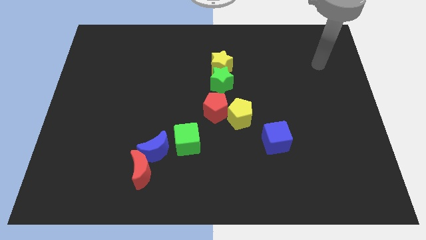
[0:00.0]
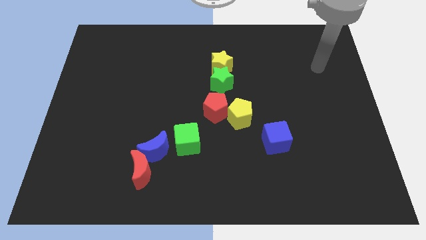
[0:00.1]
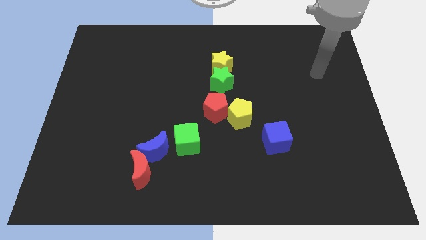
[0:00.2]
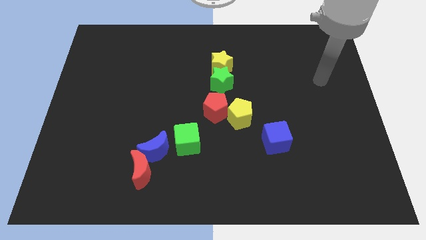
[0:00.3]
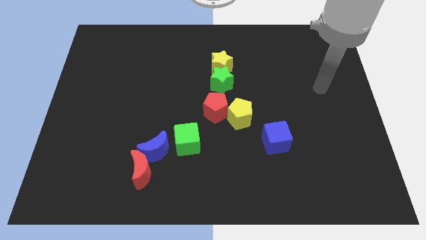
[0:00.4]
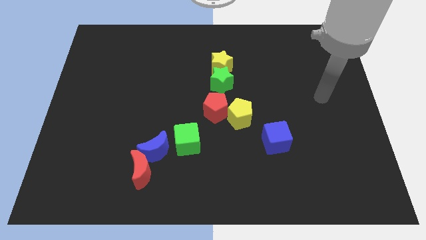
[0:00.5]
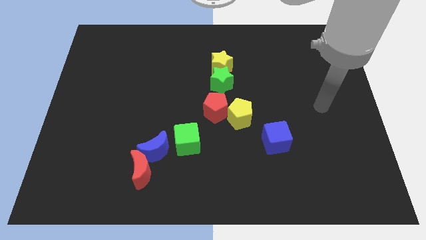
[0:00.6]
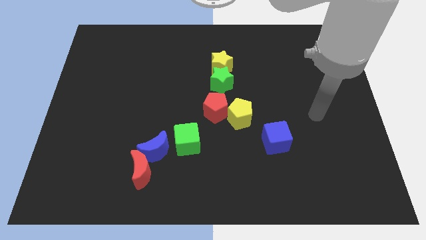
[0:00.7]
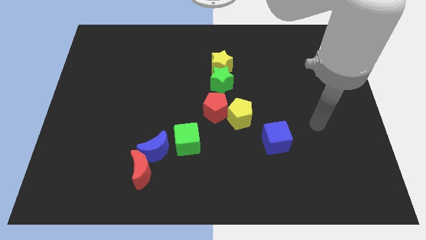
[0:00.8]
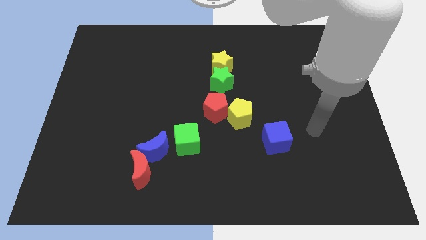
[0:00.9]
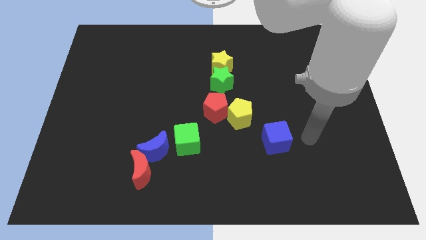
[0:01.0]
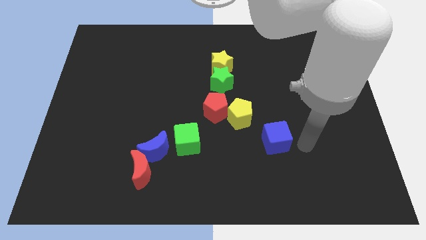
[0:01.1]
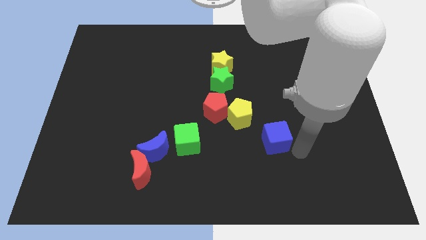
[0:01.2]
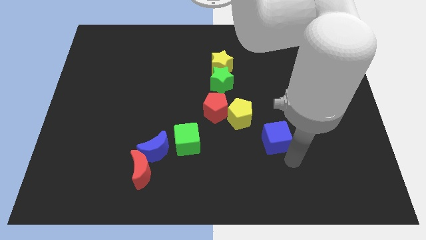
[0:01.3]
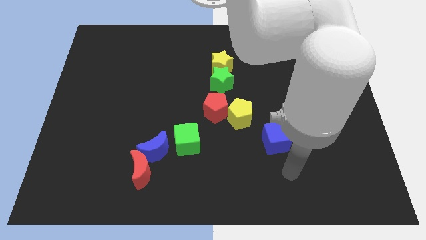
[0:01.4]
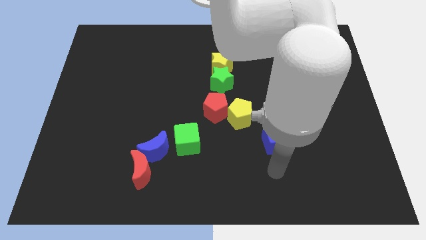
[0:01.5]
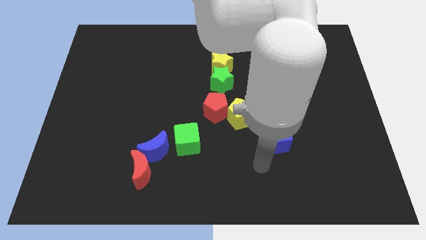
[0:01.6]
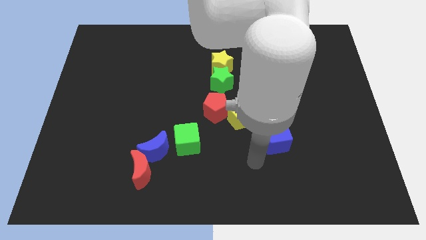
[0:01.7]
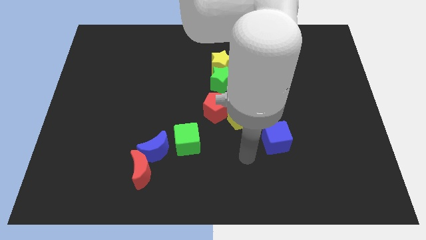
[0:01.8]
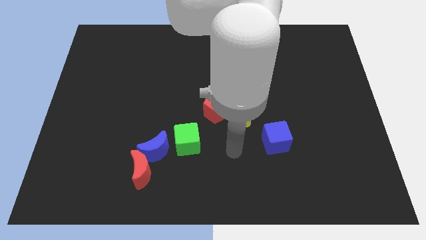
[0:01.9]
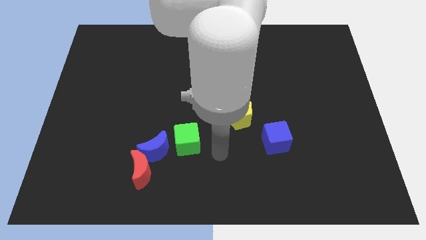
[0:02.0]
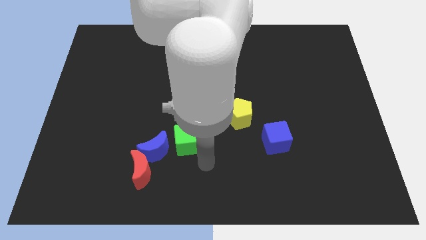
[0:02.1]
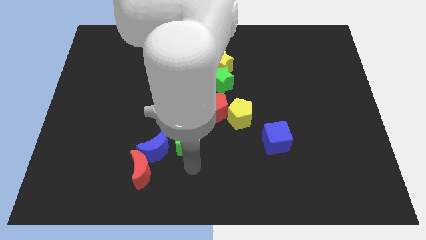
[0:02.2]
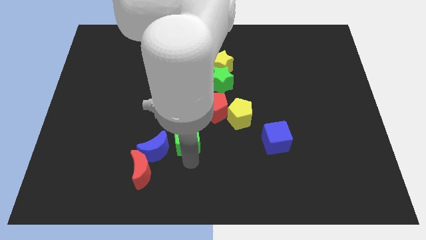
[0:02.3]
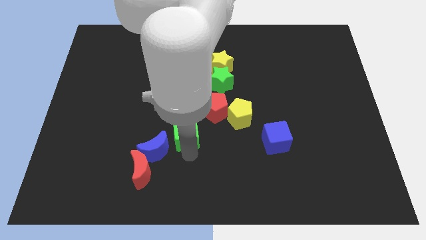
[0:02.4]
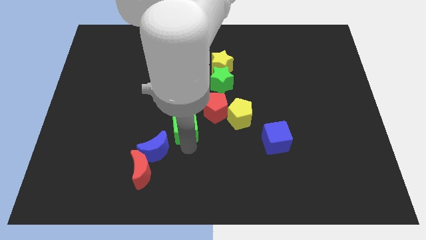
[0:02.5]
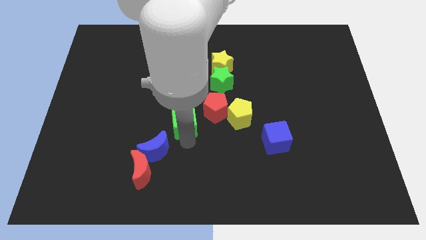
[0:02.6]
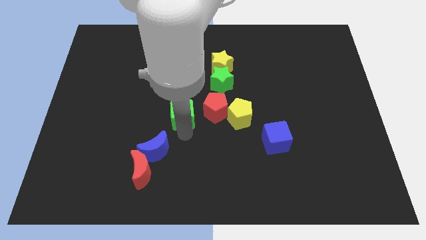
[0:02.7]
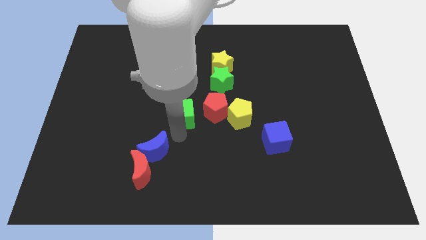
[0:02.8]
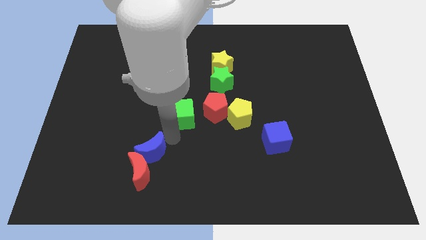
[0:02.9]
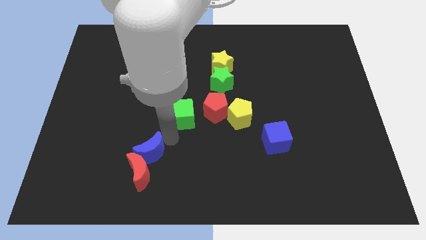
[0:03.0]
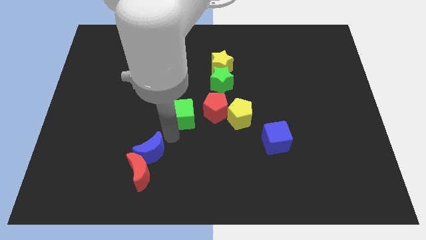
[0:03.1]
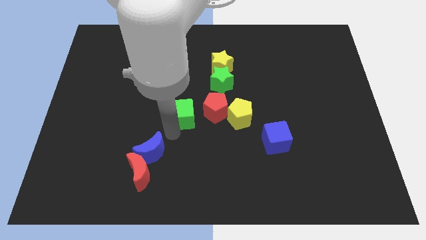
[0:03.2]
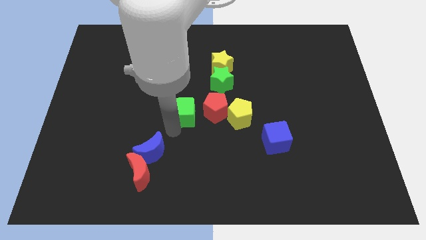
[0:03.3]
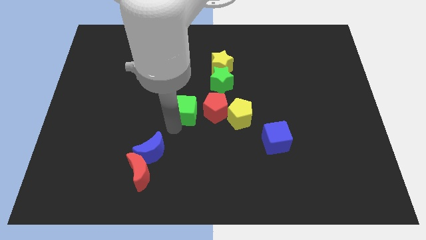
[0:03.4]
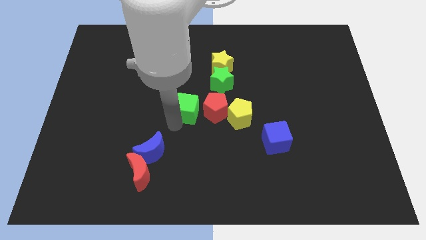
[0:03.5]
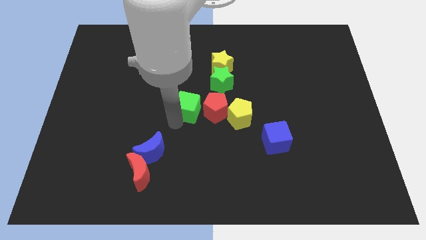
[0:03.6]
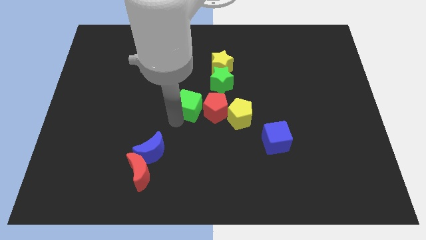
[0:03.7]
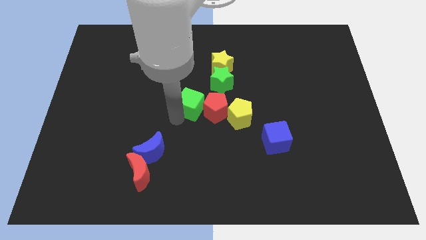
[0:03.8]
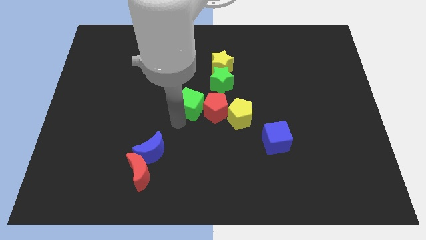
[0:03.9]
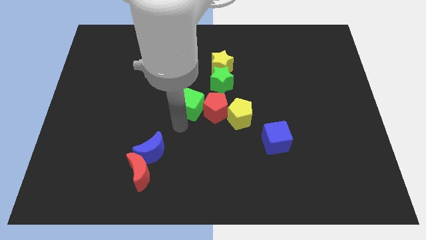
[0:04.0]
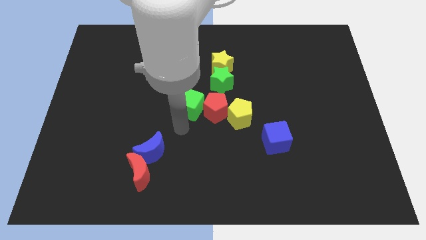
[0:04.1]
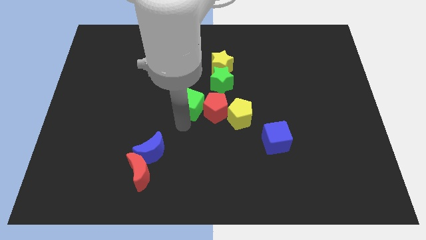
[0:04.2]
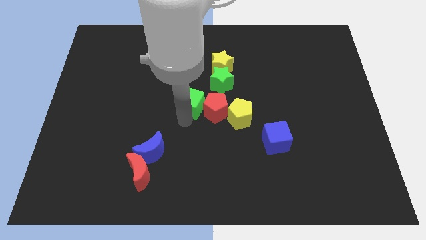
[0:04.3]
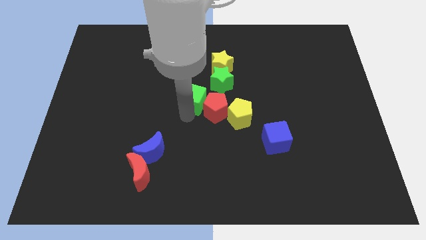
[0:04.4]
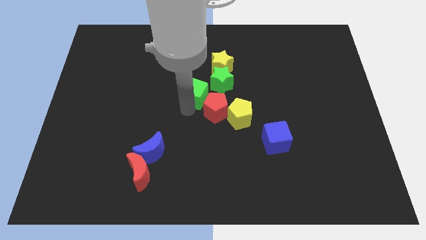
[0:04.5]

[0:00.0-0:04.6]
move the green cube a little bit upwards and then to the right

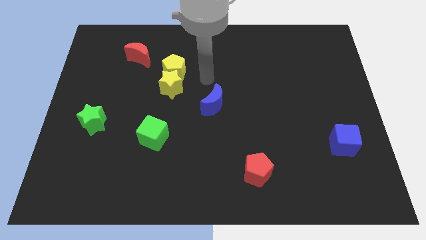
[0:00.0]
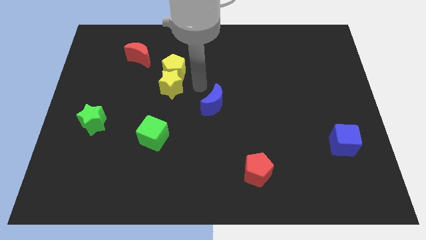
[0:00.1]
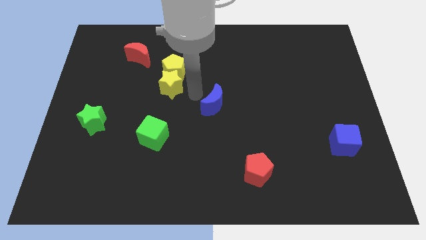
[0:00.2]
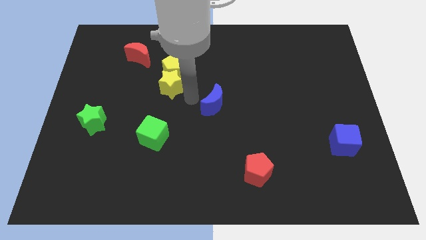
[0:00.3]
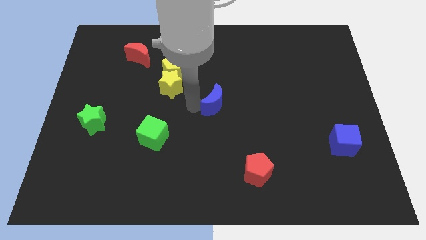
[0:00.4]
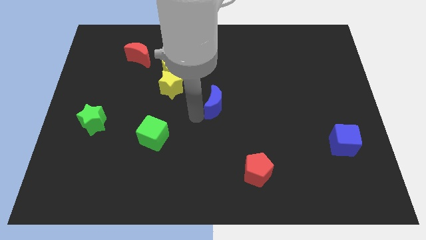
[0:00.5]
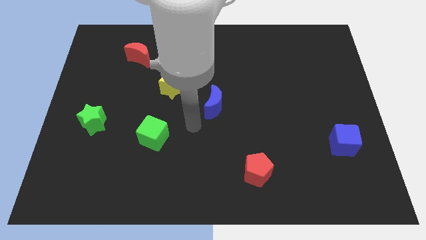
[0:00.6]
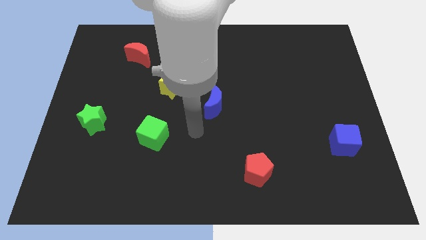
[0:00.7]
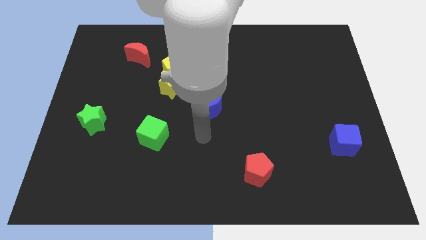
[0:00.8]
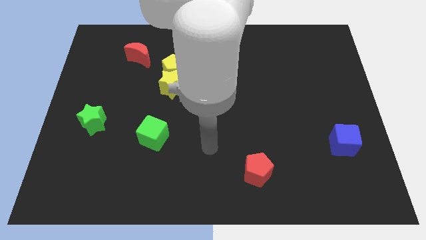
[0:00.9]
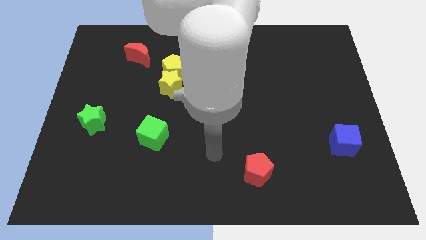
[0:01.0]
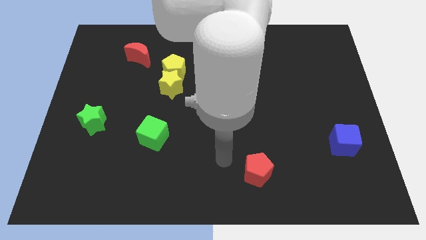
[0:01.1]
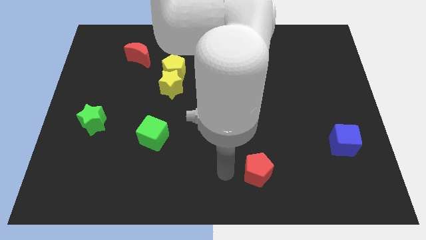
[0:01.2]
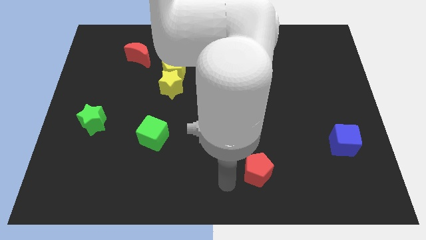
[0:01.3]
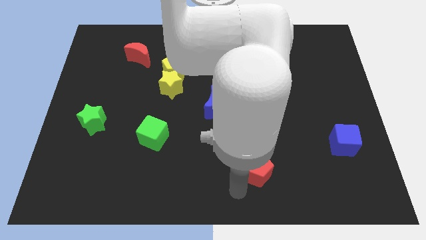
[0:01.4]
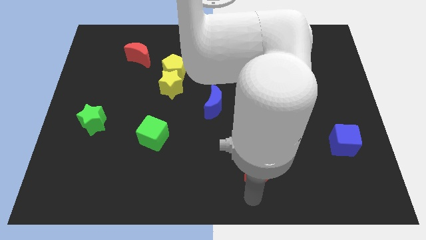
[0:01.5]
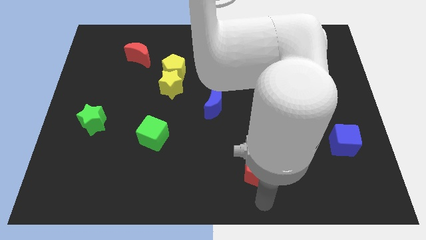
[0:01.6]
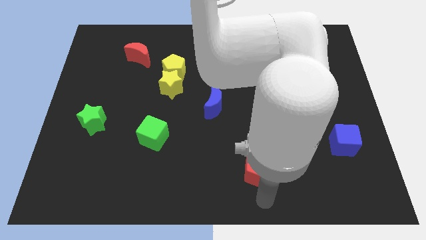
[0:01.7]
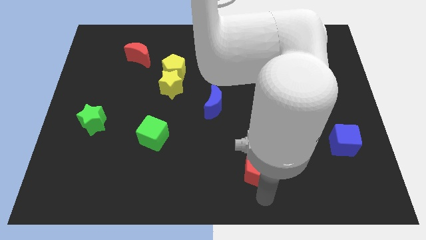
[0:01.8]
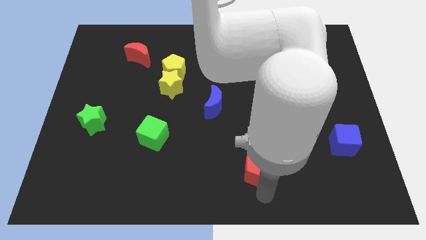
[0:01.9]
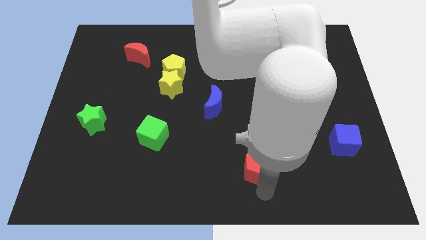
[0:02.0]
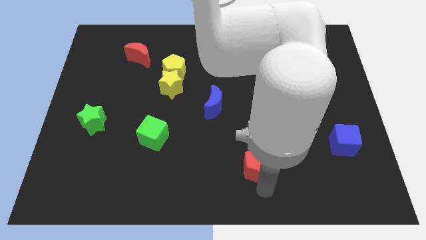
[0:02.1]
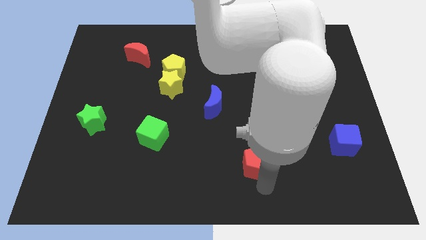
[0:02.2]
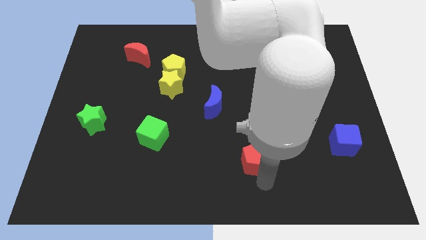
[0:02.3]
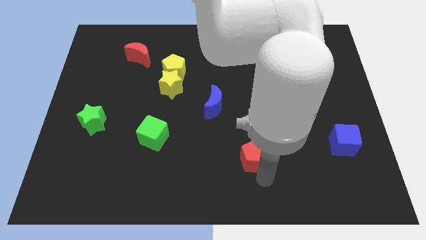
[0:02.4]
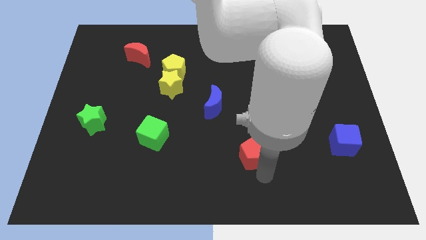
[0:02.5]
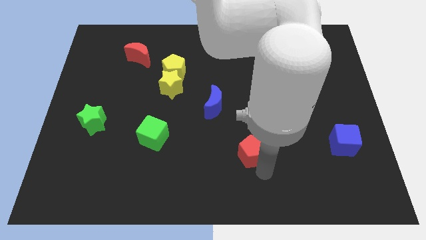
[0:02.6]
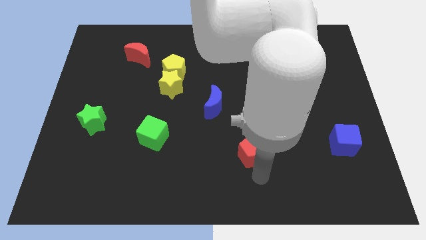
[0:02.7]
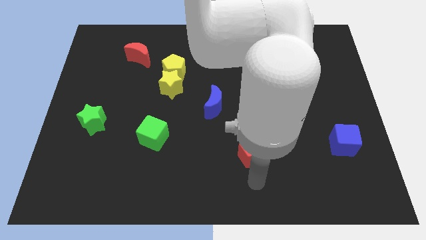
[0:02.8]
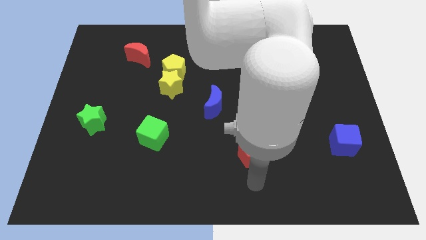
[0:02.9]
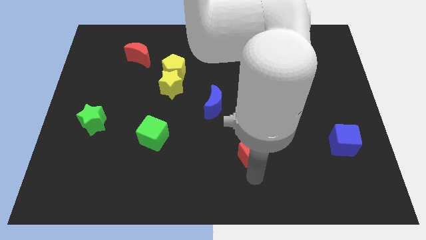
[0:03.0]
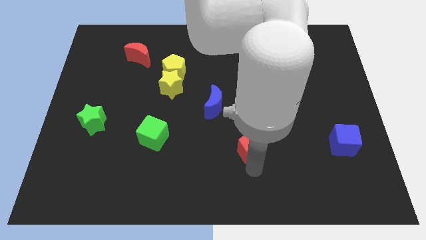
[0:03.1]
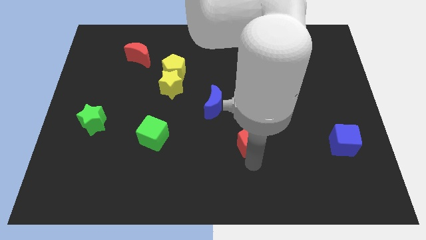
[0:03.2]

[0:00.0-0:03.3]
slightly slide the red pentagon up
